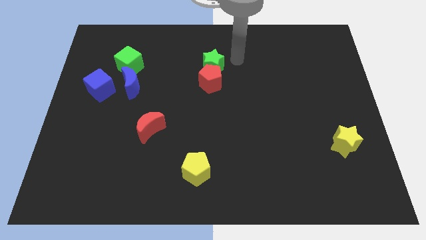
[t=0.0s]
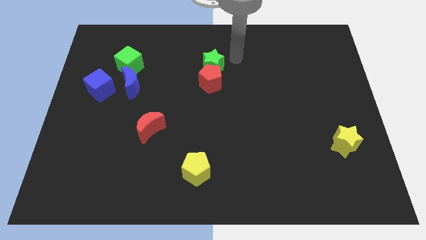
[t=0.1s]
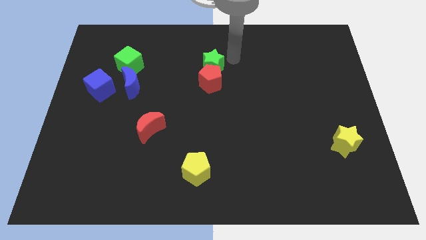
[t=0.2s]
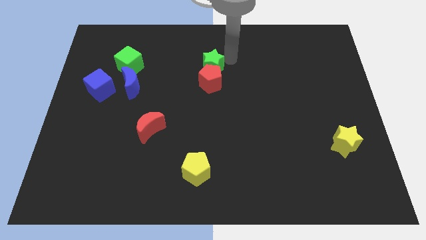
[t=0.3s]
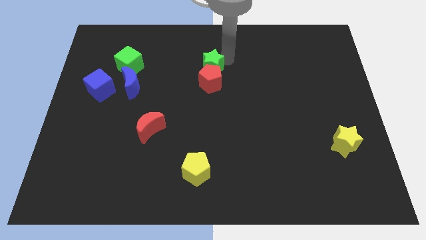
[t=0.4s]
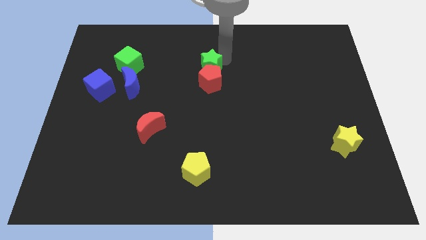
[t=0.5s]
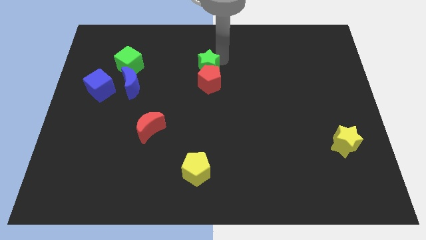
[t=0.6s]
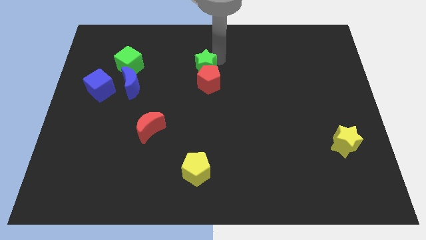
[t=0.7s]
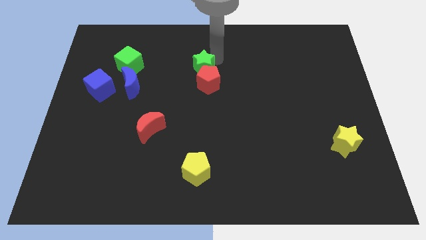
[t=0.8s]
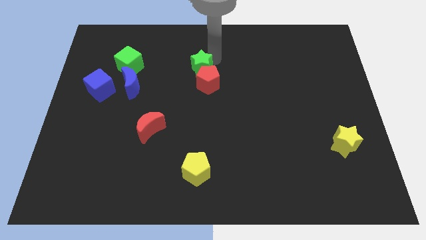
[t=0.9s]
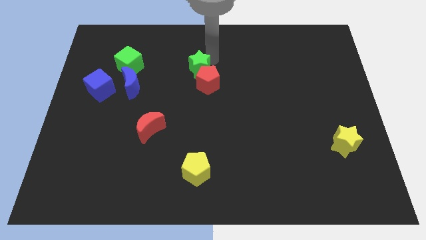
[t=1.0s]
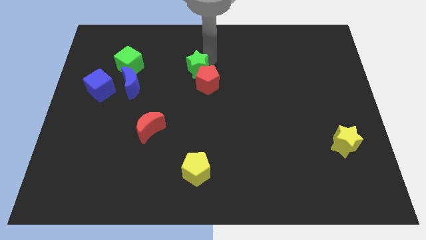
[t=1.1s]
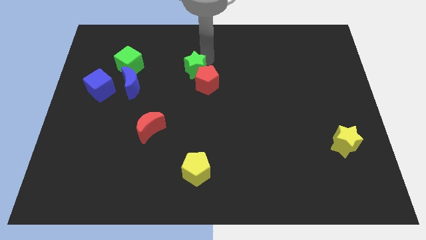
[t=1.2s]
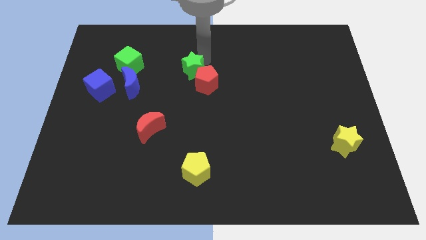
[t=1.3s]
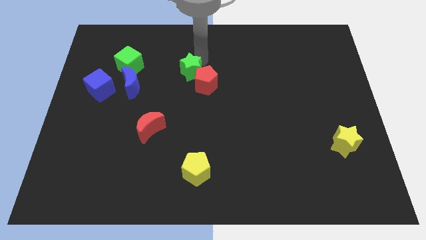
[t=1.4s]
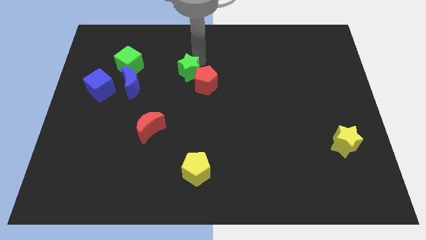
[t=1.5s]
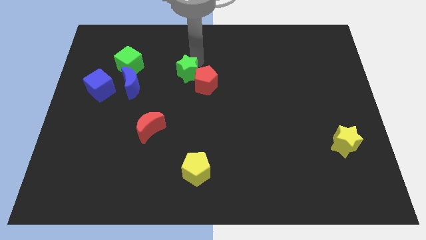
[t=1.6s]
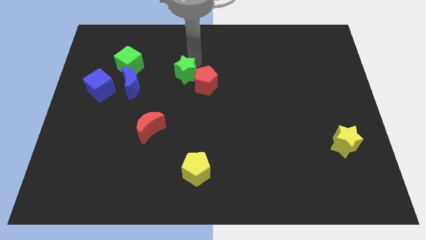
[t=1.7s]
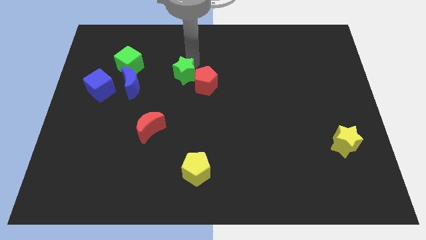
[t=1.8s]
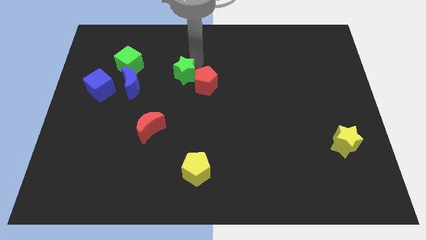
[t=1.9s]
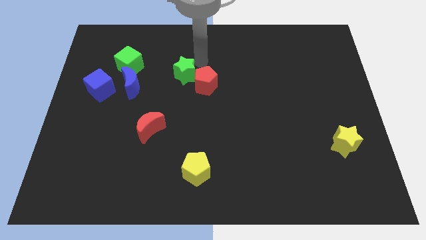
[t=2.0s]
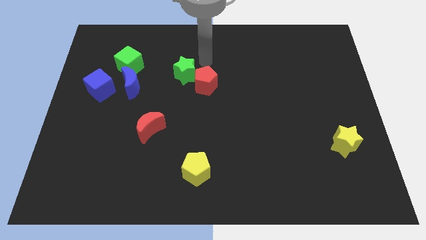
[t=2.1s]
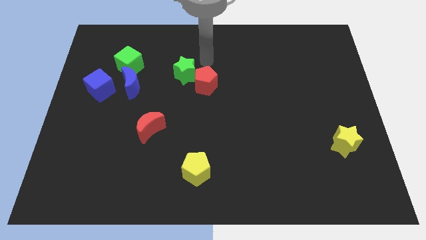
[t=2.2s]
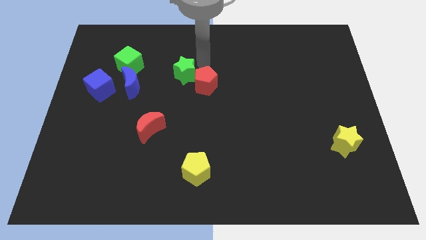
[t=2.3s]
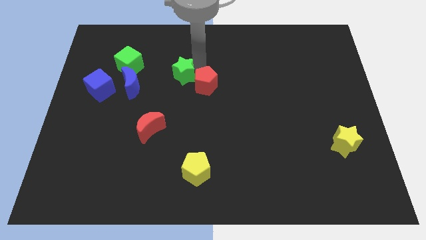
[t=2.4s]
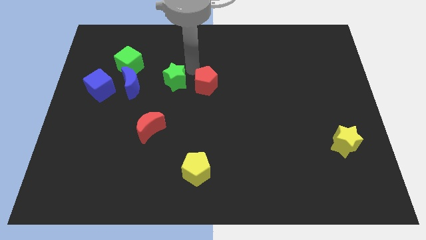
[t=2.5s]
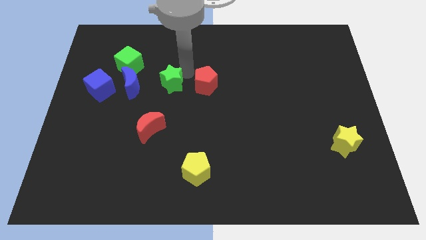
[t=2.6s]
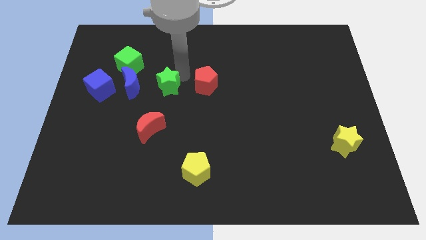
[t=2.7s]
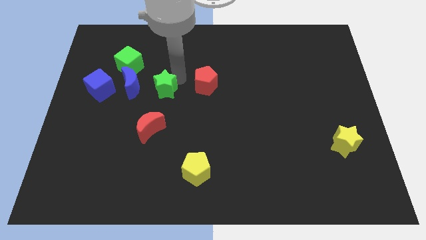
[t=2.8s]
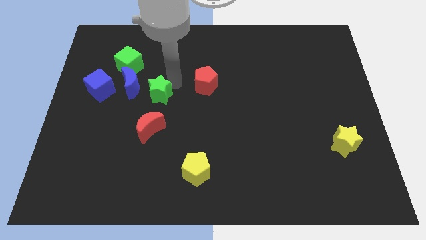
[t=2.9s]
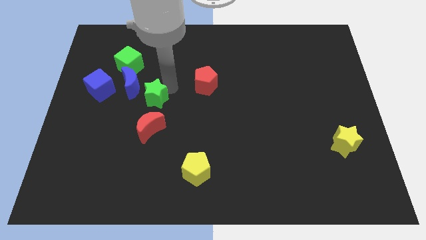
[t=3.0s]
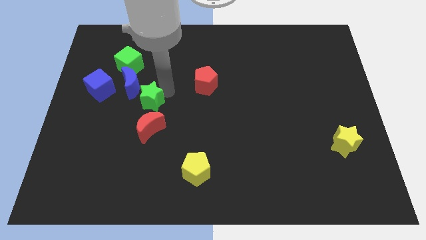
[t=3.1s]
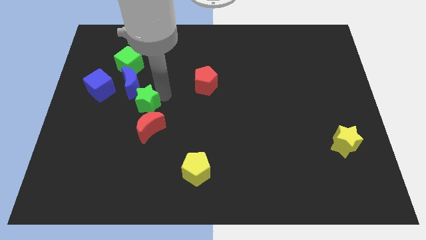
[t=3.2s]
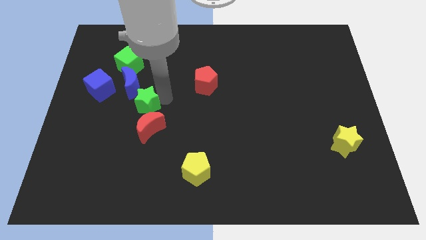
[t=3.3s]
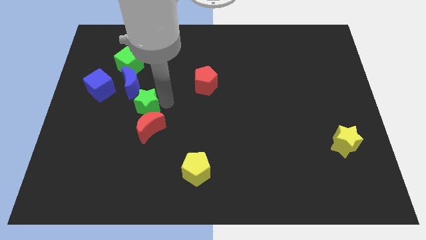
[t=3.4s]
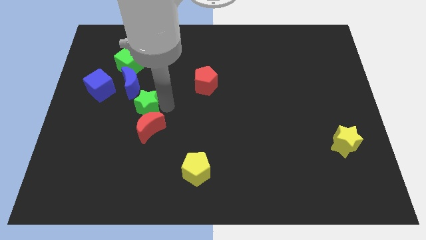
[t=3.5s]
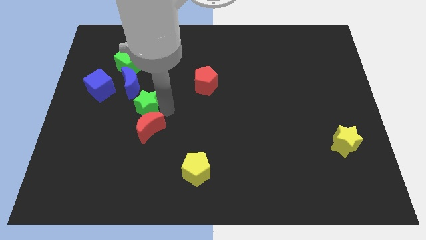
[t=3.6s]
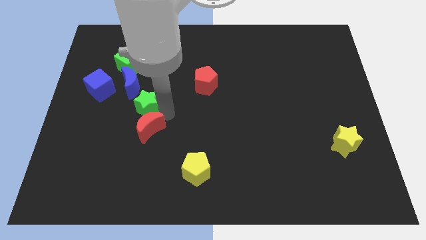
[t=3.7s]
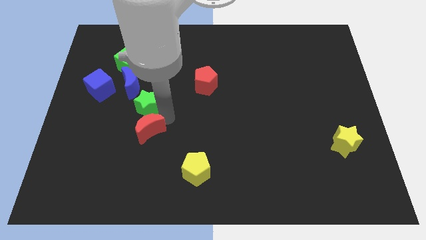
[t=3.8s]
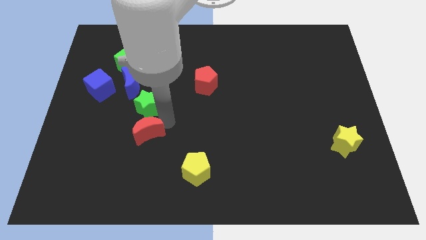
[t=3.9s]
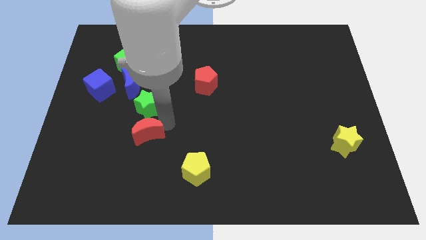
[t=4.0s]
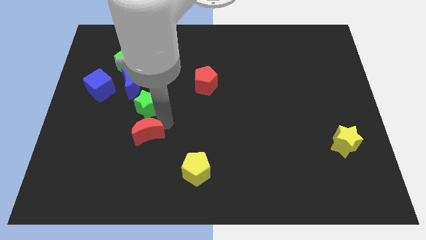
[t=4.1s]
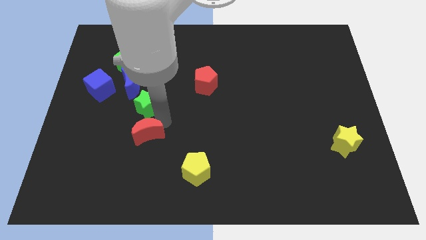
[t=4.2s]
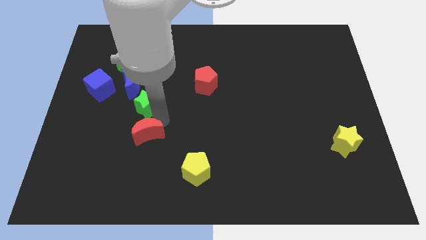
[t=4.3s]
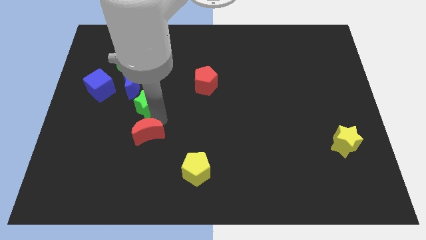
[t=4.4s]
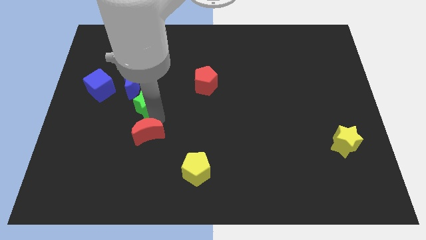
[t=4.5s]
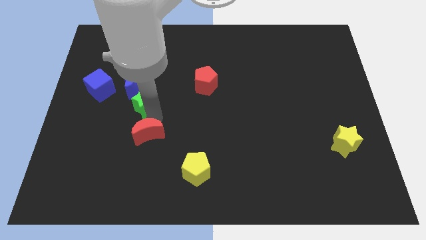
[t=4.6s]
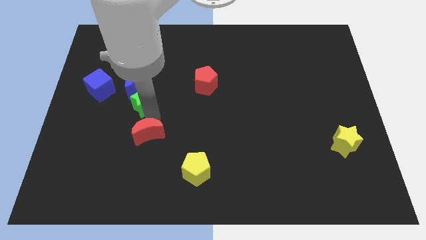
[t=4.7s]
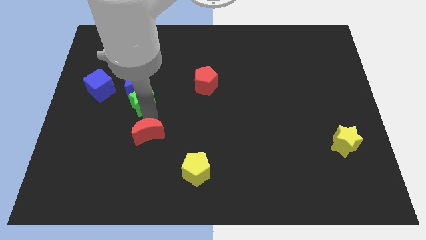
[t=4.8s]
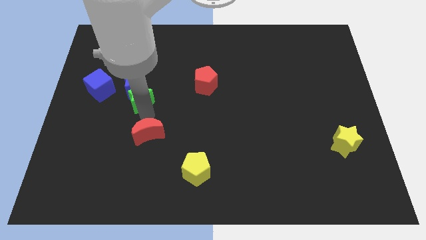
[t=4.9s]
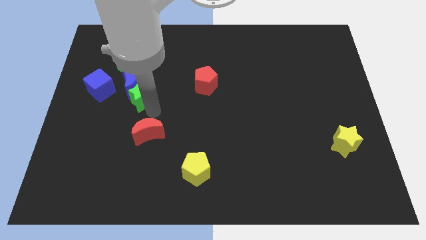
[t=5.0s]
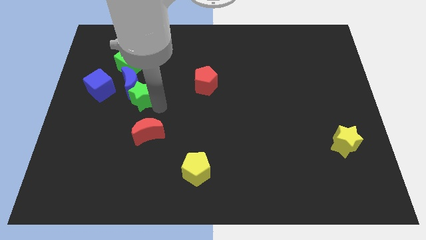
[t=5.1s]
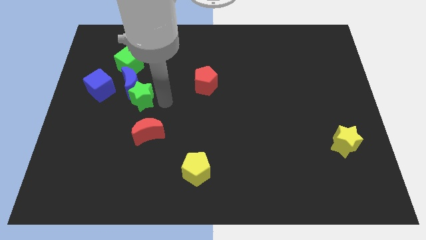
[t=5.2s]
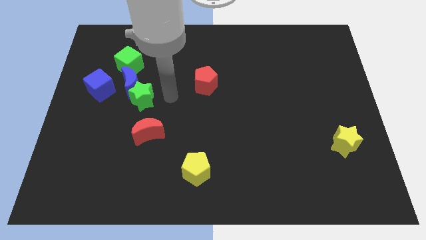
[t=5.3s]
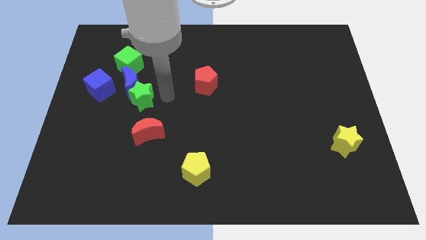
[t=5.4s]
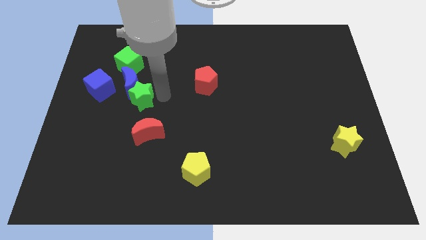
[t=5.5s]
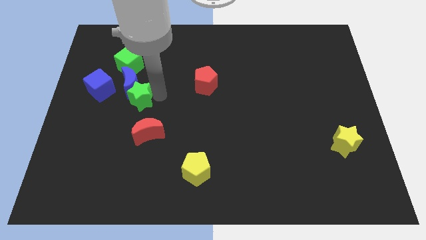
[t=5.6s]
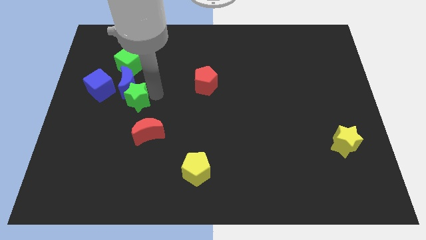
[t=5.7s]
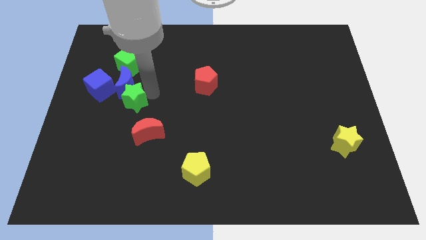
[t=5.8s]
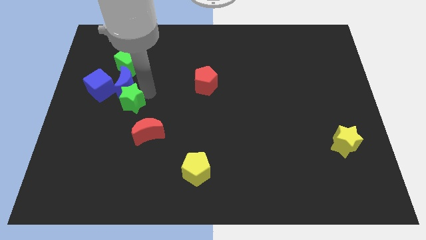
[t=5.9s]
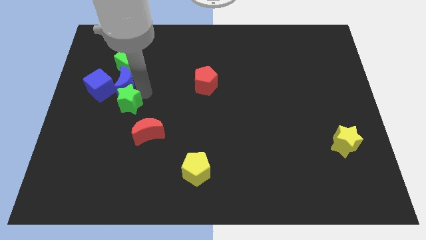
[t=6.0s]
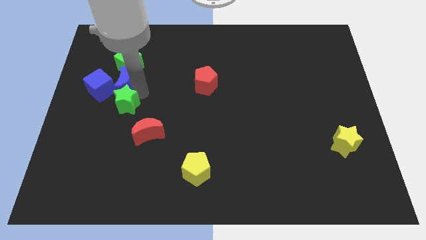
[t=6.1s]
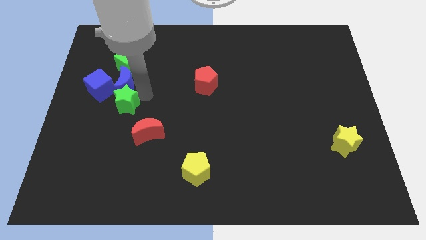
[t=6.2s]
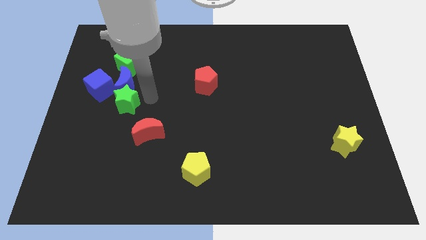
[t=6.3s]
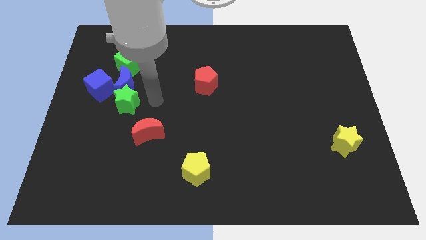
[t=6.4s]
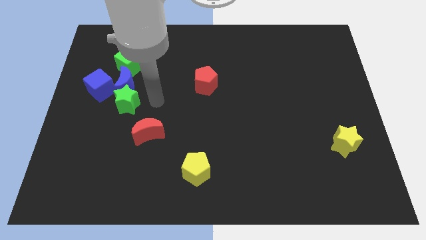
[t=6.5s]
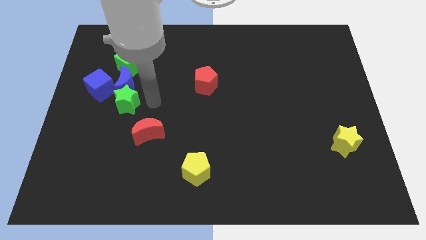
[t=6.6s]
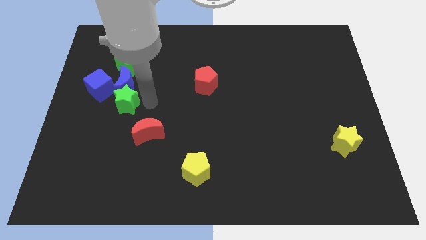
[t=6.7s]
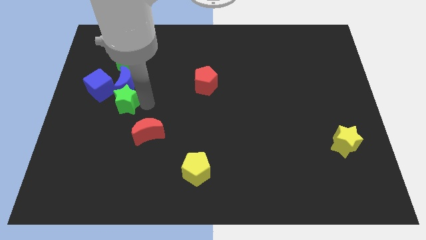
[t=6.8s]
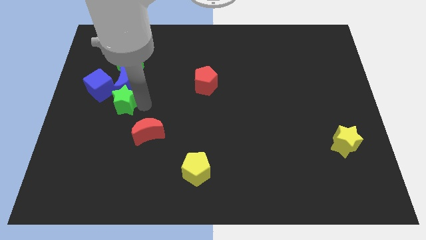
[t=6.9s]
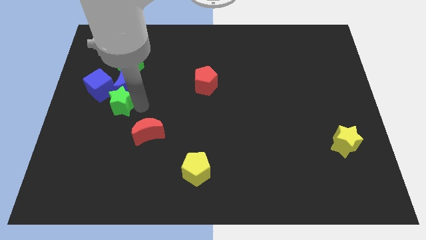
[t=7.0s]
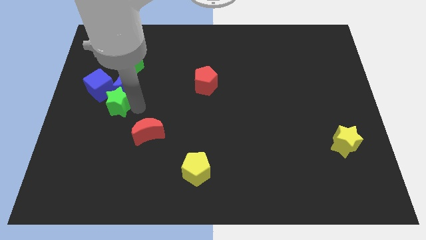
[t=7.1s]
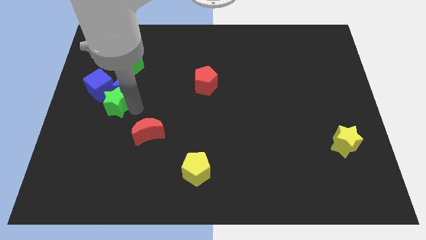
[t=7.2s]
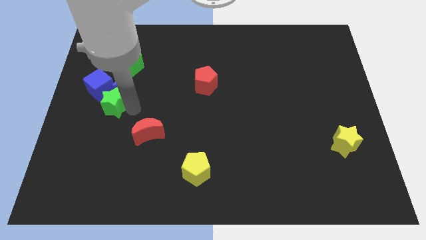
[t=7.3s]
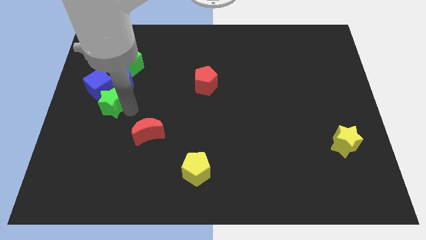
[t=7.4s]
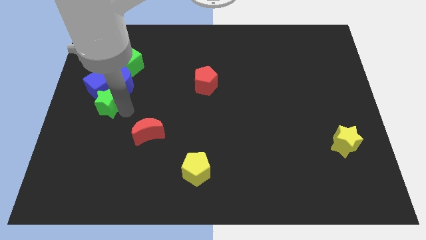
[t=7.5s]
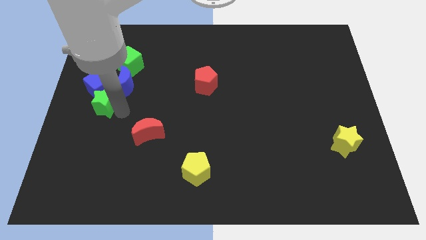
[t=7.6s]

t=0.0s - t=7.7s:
slide the green star to the center left
